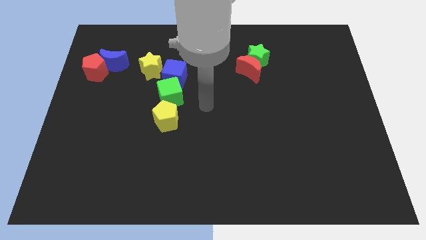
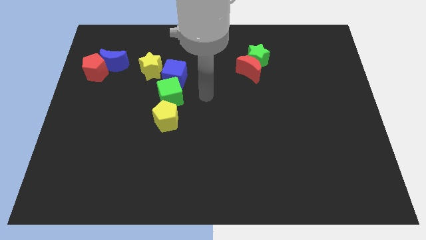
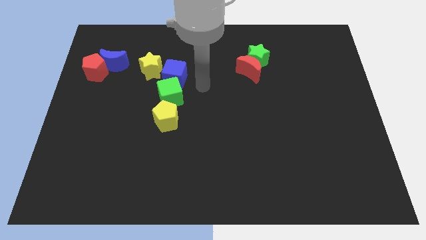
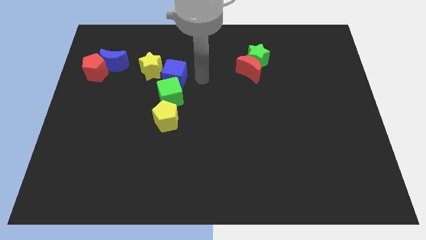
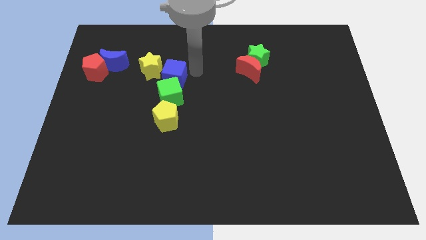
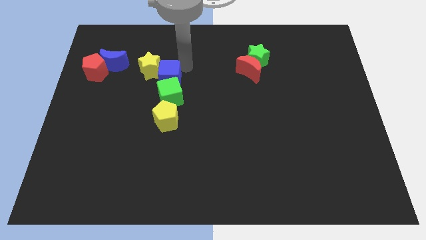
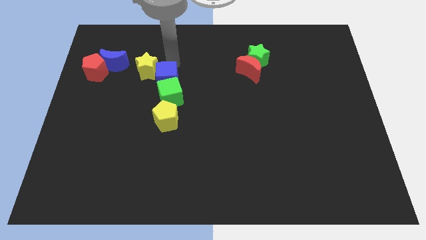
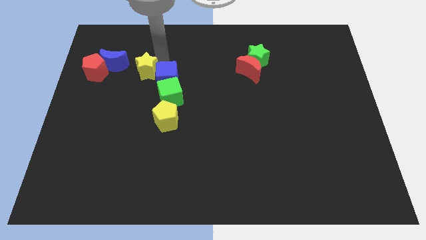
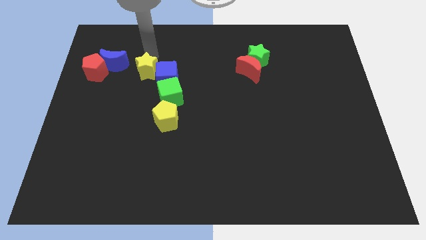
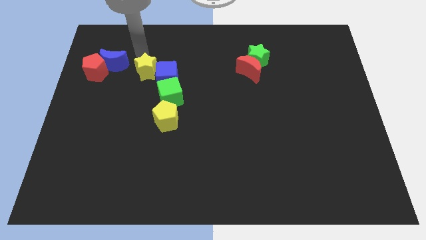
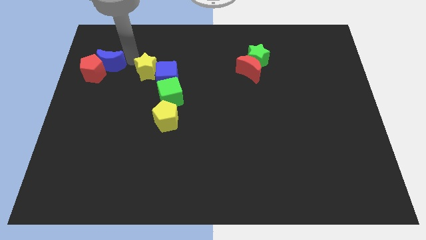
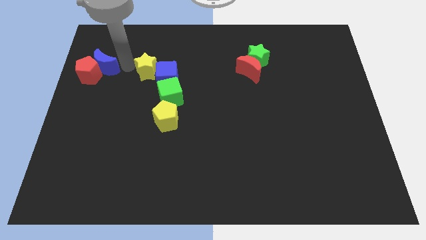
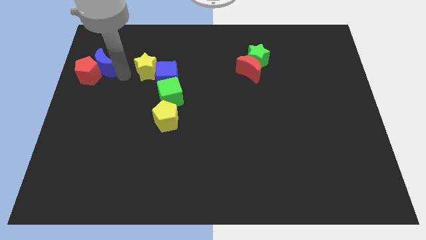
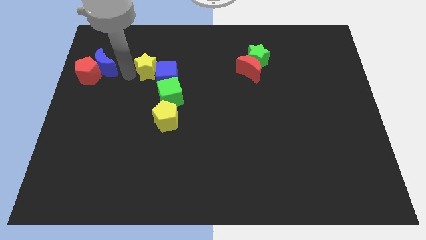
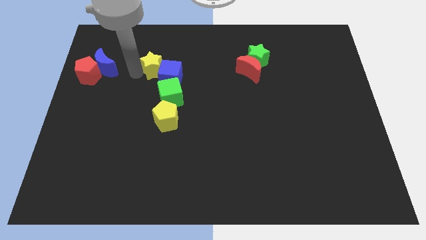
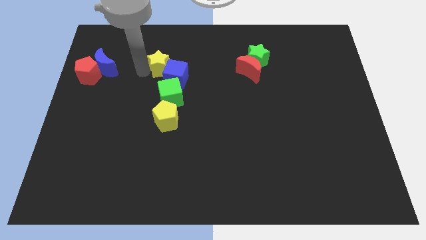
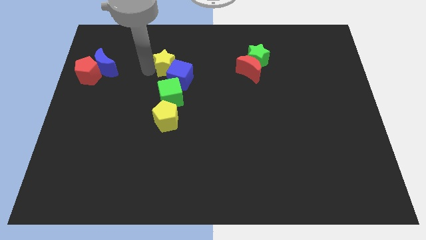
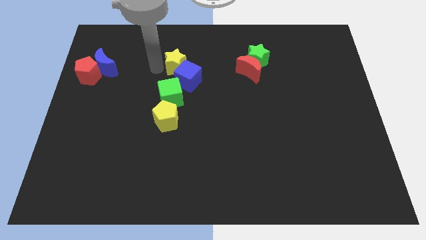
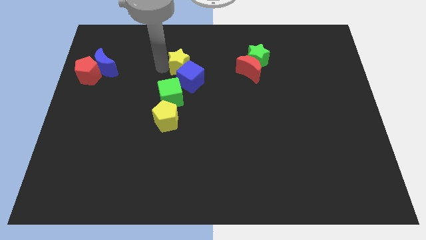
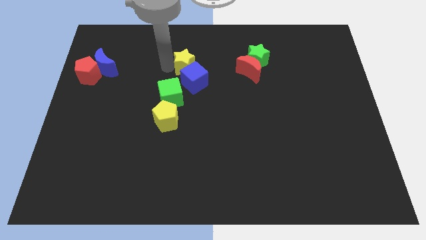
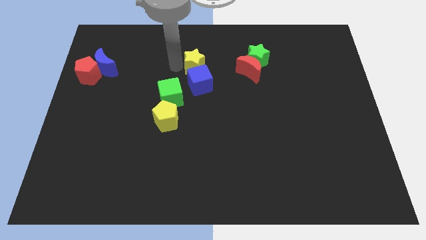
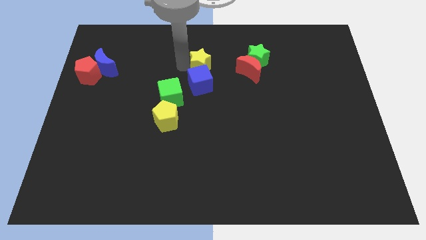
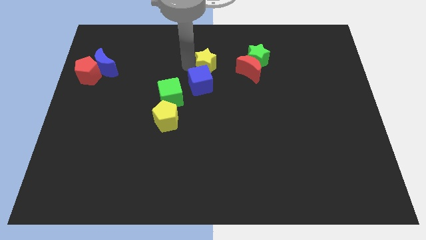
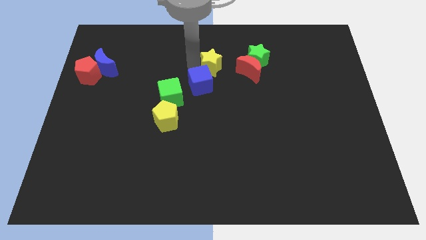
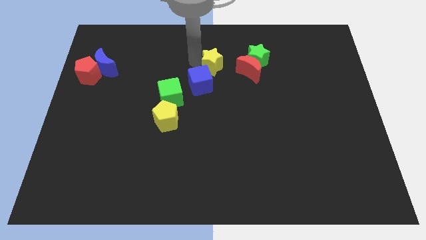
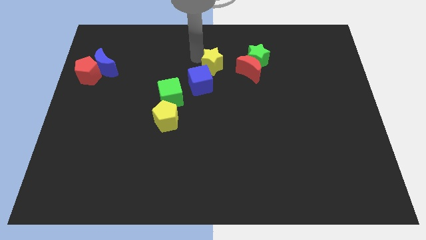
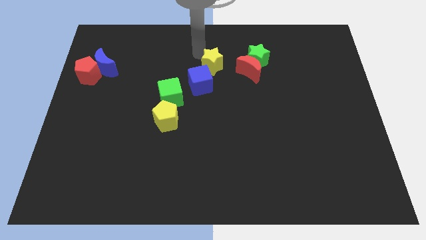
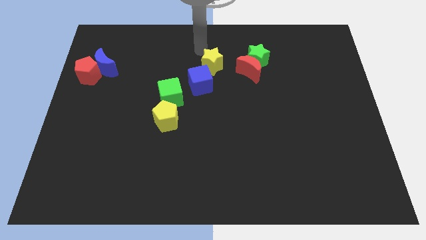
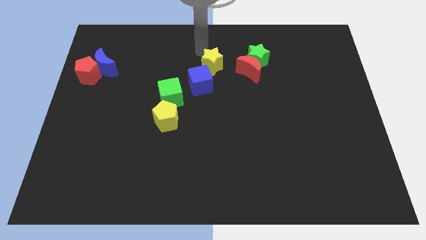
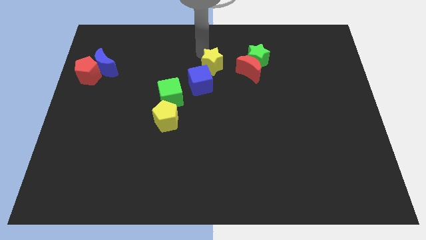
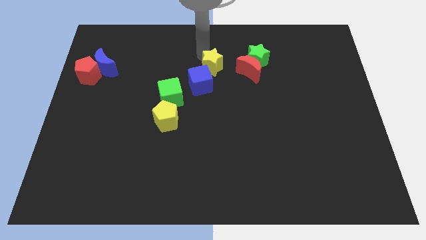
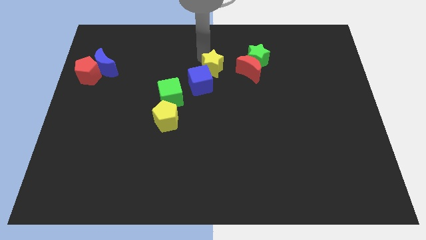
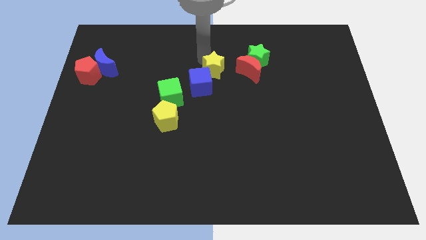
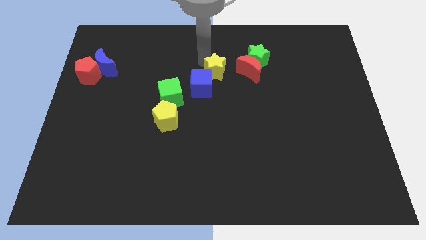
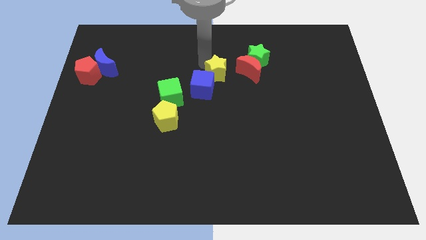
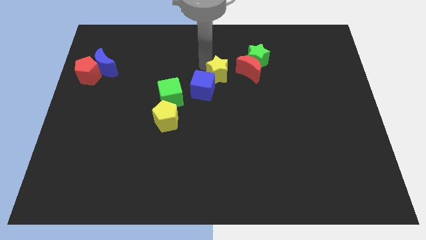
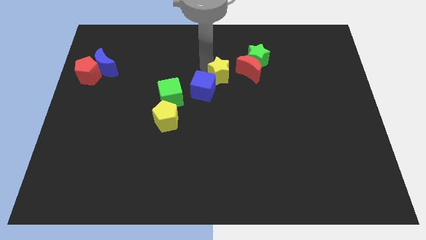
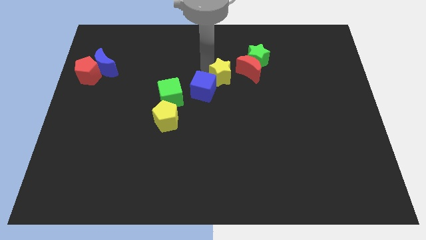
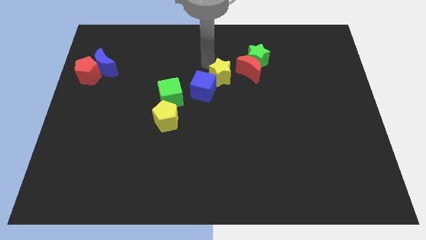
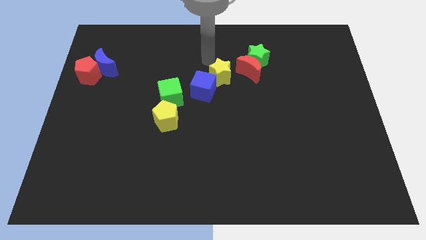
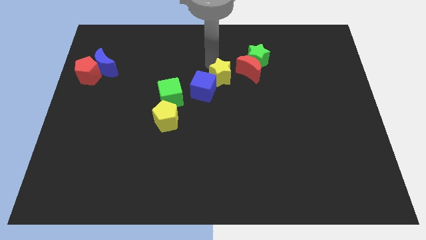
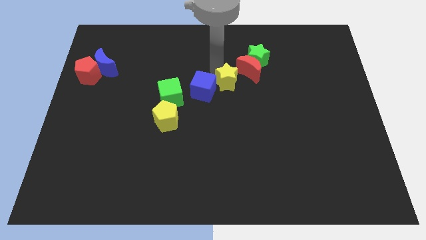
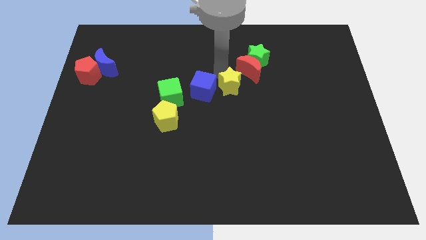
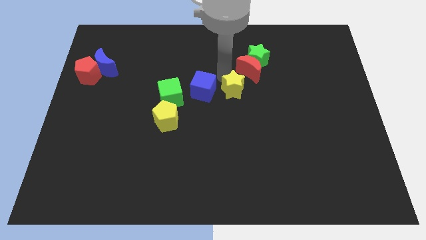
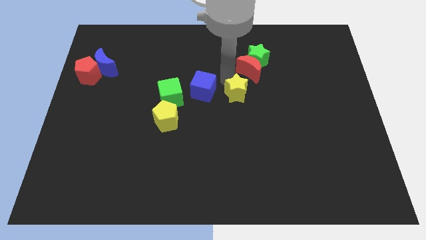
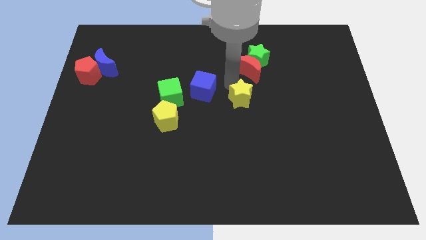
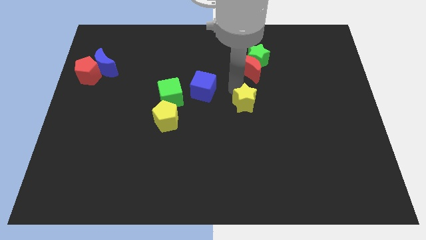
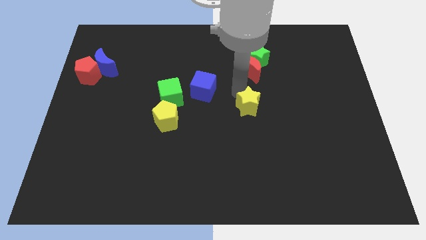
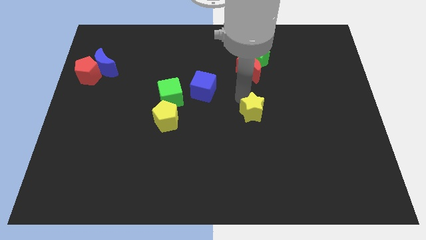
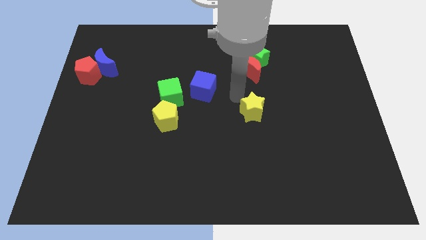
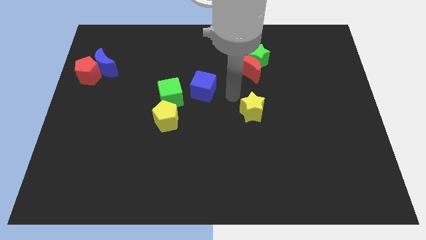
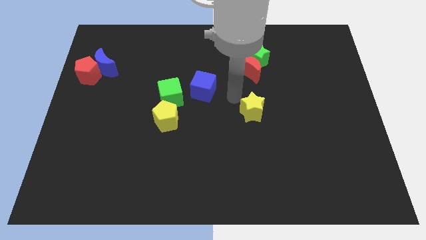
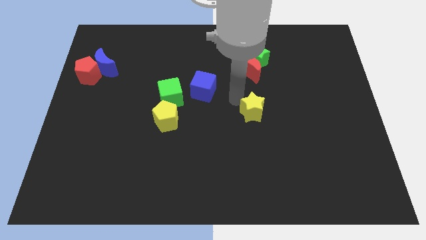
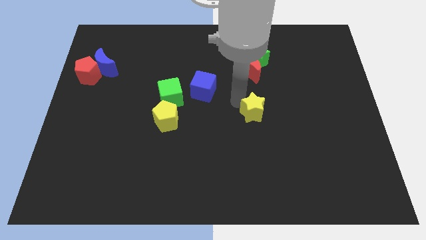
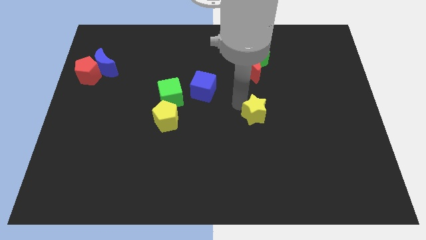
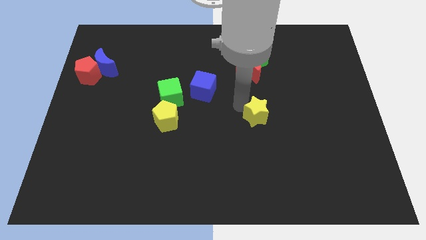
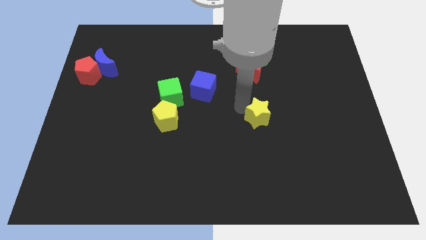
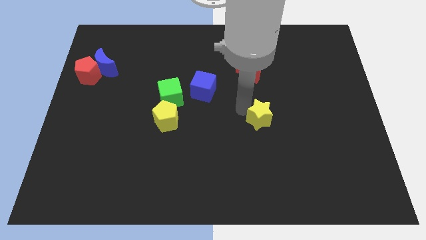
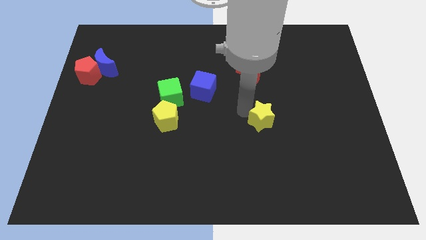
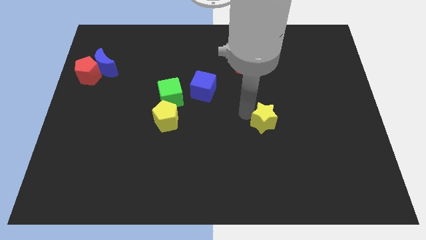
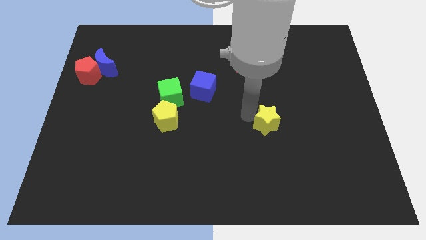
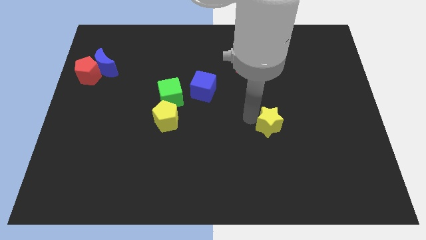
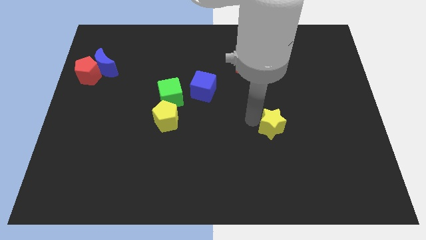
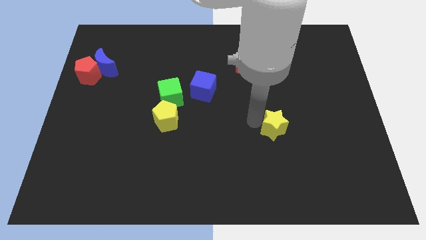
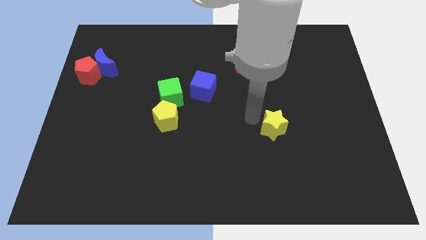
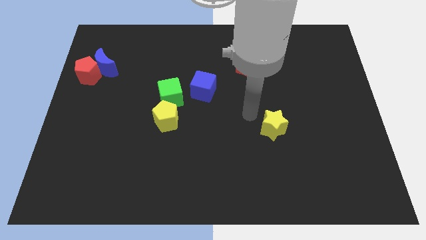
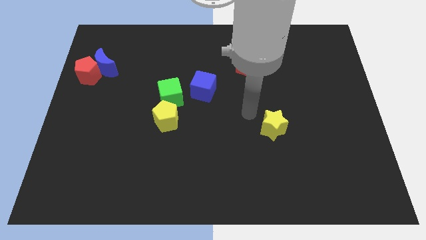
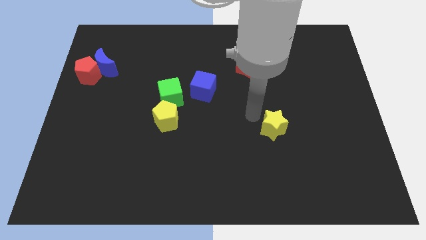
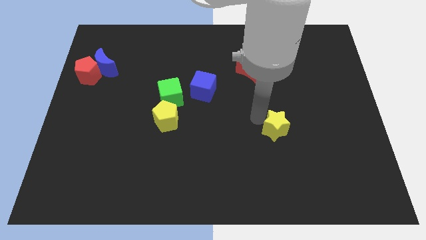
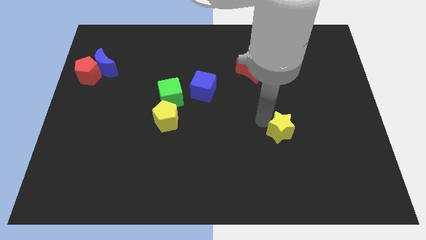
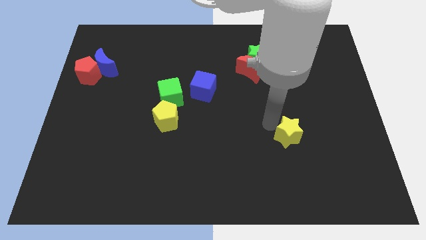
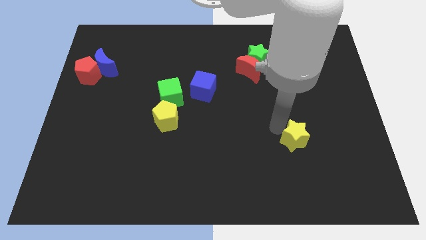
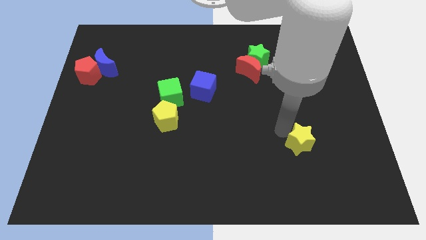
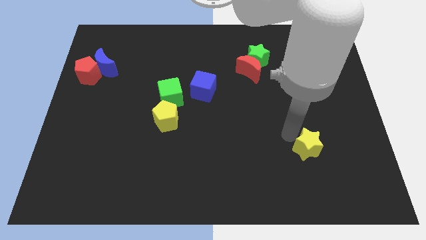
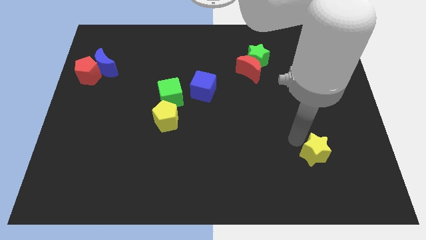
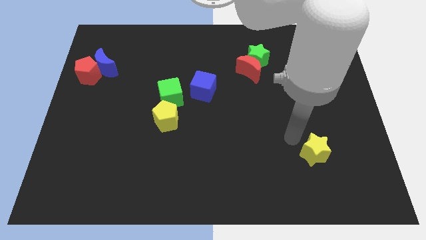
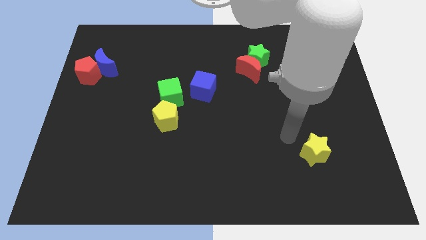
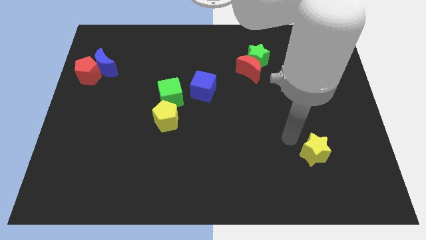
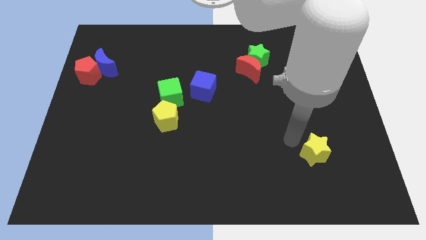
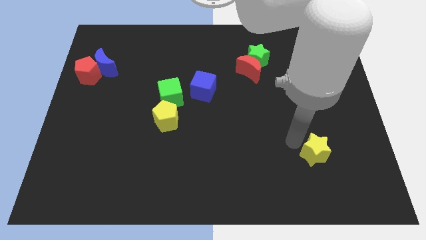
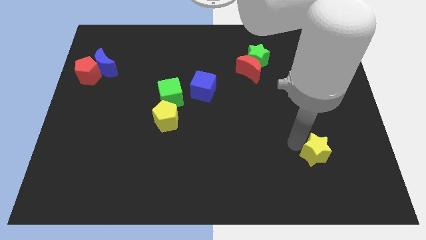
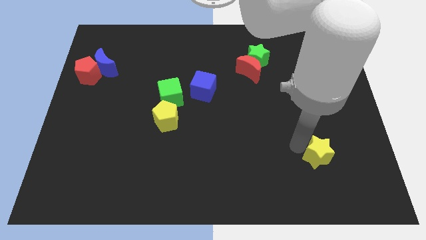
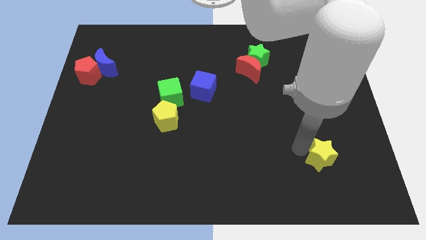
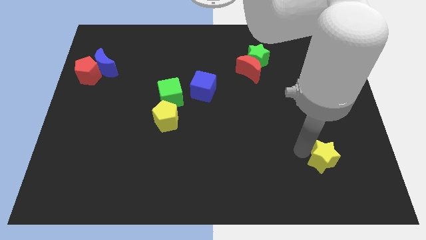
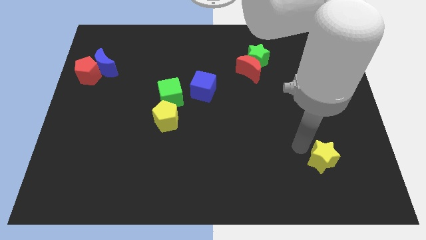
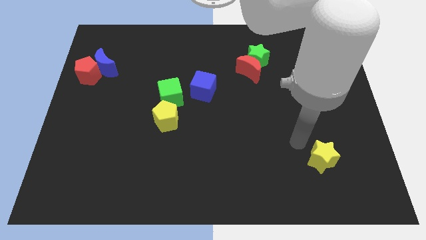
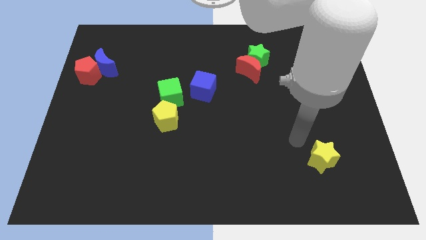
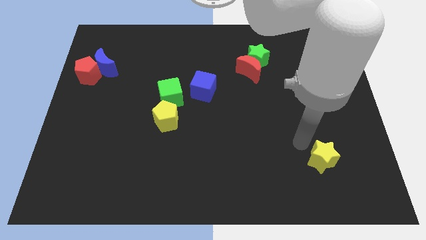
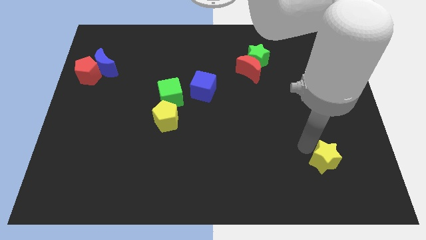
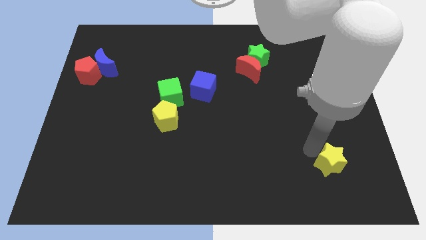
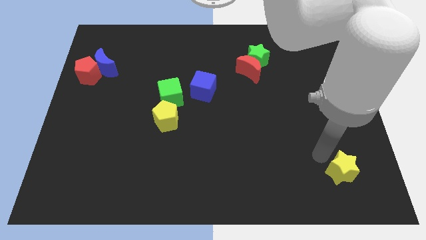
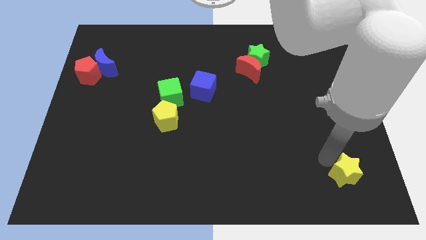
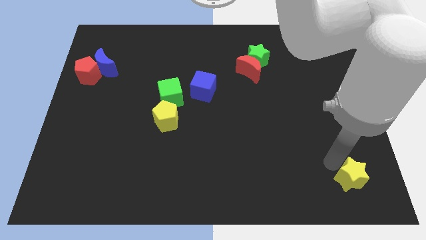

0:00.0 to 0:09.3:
put the yellow star to the bottom right
